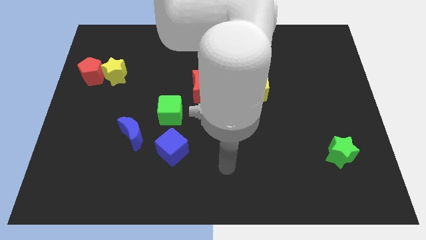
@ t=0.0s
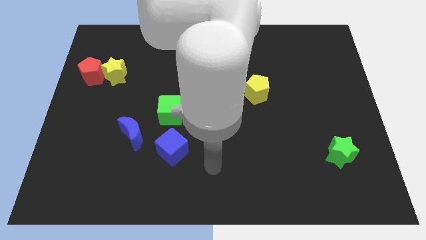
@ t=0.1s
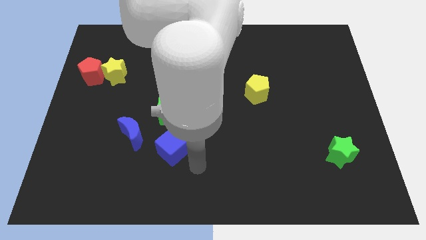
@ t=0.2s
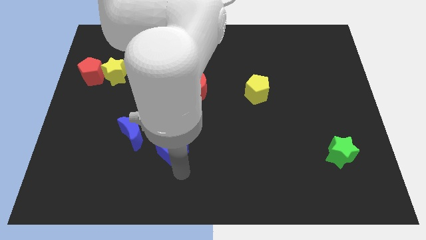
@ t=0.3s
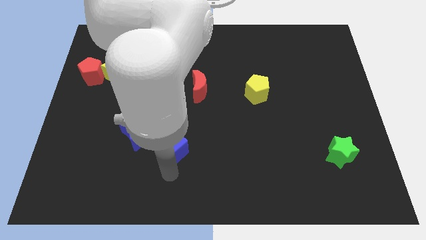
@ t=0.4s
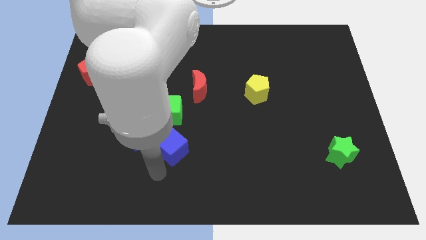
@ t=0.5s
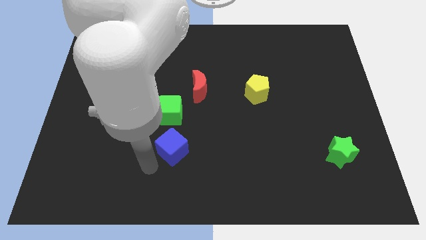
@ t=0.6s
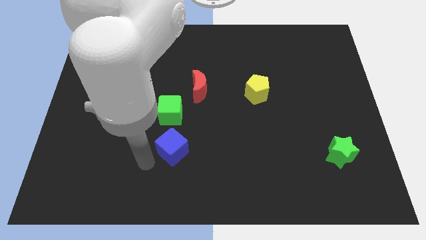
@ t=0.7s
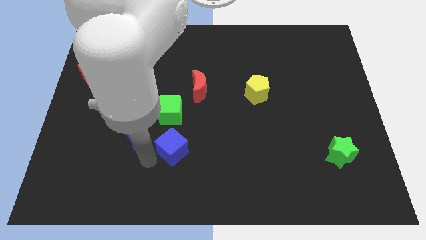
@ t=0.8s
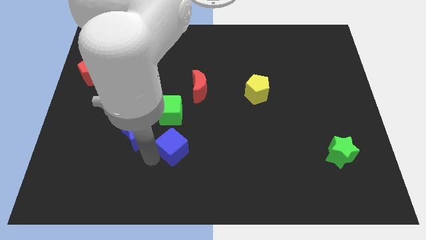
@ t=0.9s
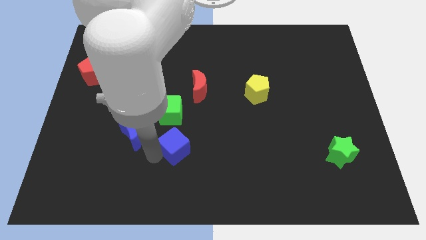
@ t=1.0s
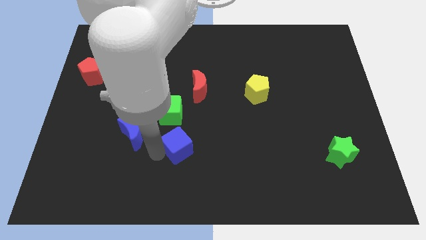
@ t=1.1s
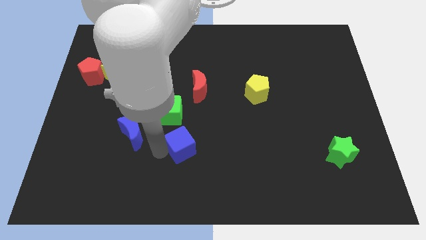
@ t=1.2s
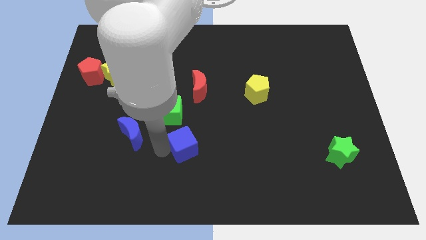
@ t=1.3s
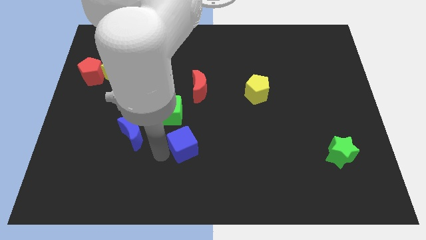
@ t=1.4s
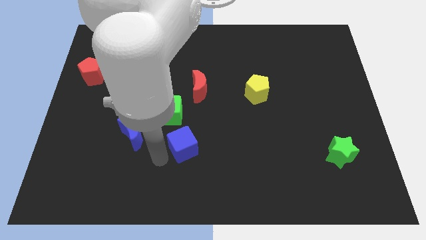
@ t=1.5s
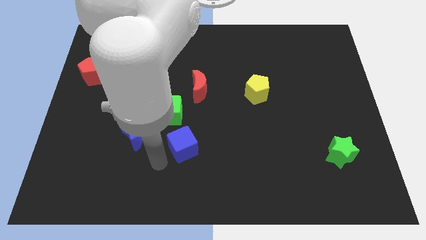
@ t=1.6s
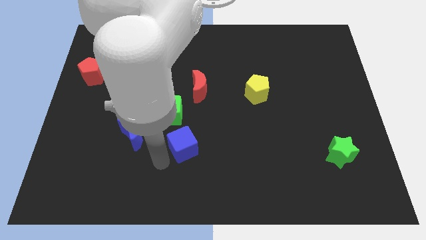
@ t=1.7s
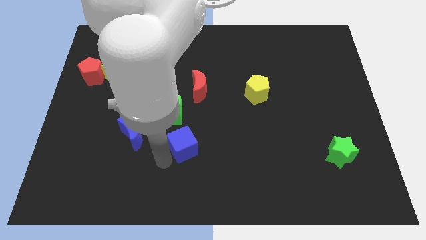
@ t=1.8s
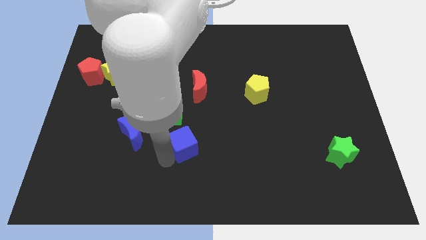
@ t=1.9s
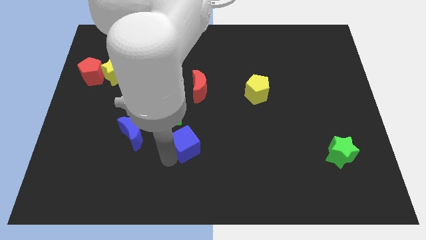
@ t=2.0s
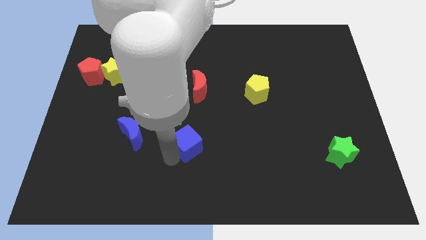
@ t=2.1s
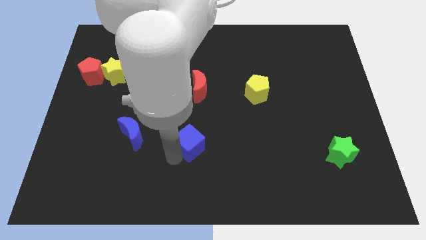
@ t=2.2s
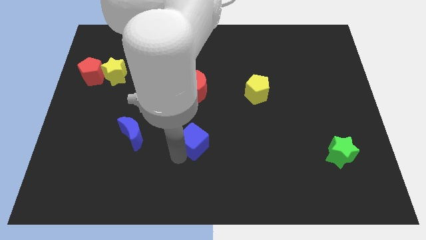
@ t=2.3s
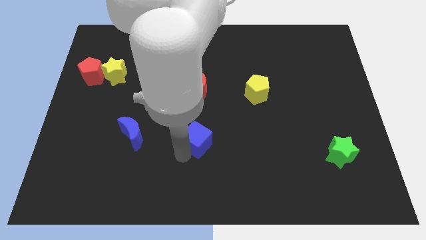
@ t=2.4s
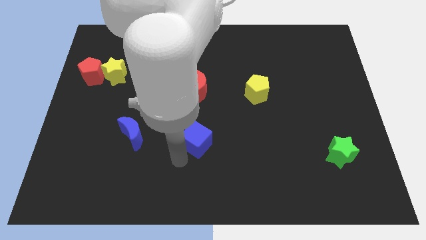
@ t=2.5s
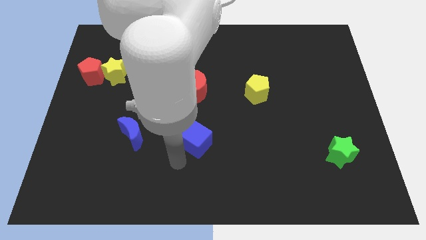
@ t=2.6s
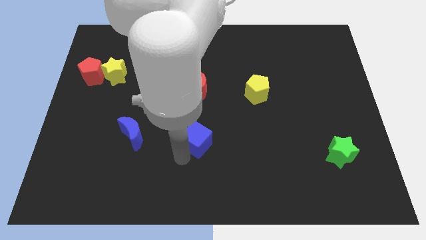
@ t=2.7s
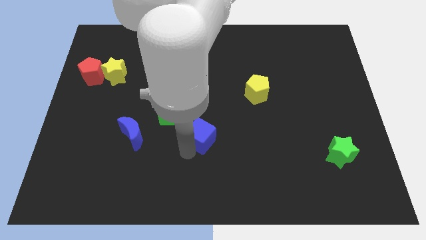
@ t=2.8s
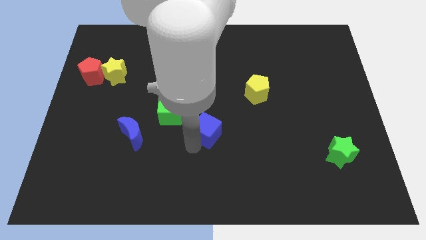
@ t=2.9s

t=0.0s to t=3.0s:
slide the blue cube up and then right somewhat

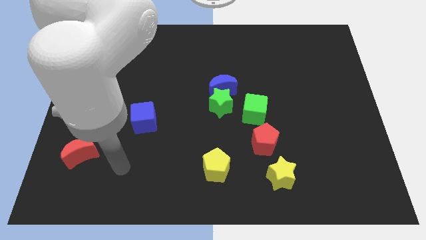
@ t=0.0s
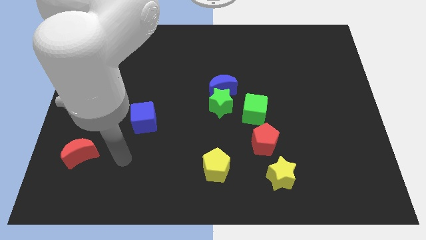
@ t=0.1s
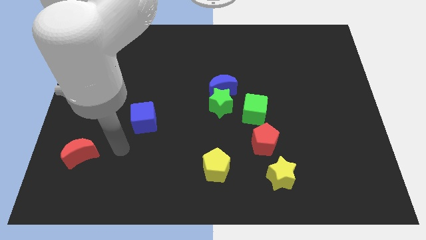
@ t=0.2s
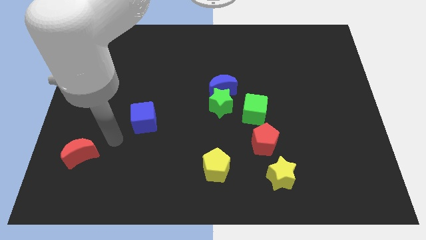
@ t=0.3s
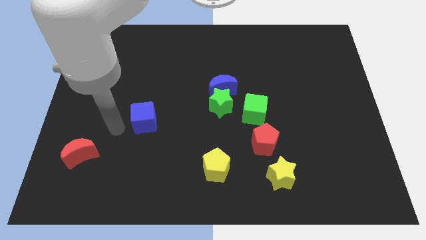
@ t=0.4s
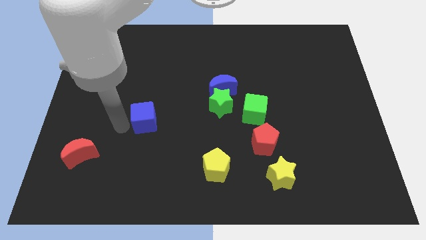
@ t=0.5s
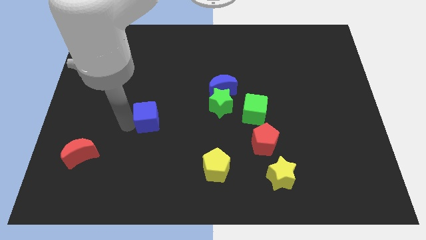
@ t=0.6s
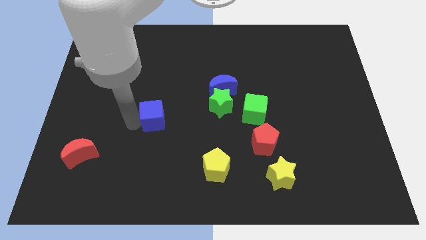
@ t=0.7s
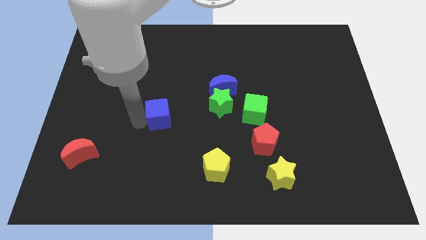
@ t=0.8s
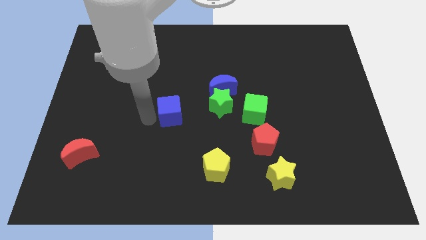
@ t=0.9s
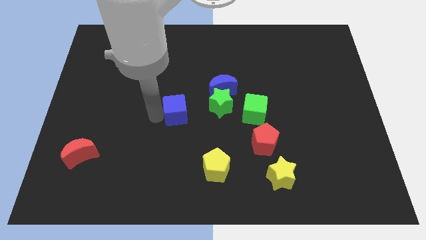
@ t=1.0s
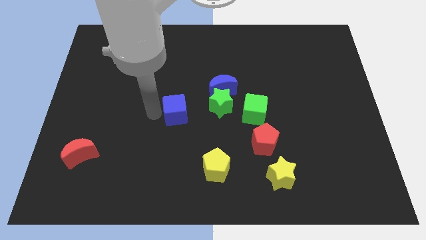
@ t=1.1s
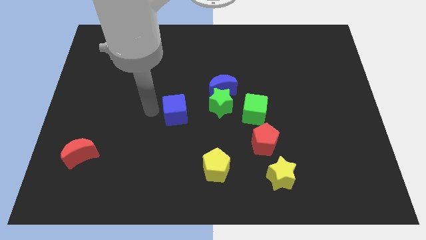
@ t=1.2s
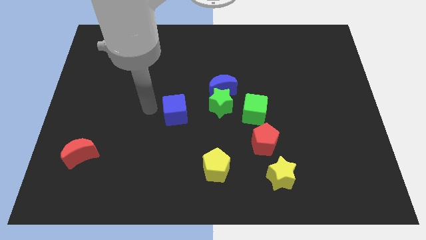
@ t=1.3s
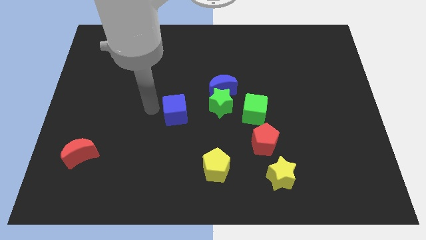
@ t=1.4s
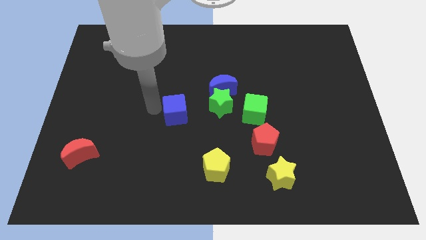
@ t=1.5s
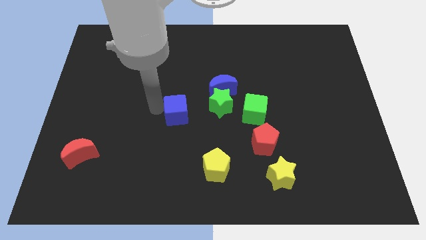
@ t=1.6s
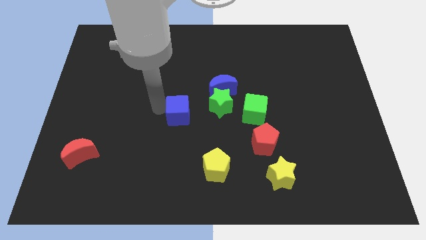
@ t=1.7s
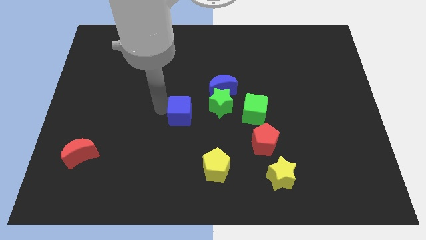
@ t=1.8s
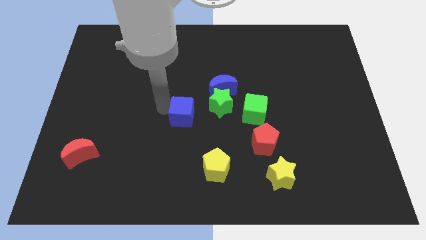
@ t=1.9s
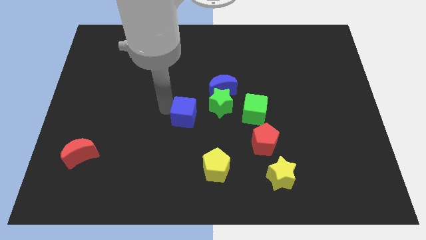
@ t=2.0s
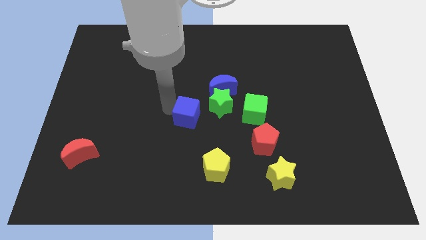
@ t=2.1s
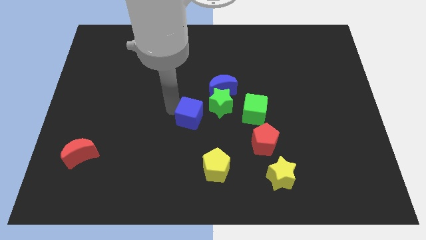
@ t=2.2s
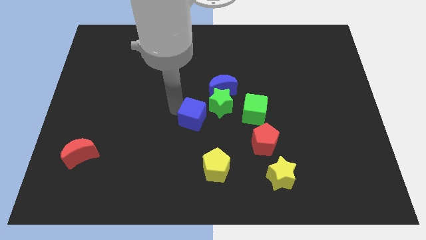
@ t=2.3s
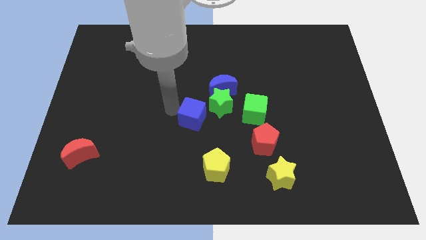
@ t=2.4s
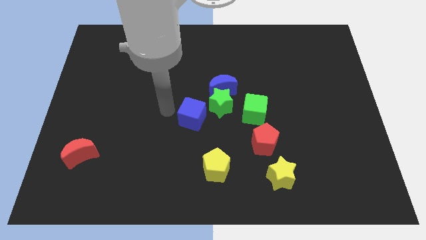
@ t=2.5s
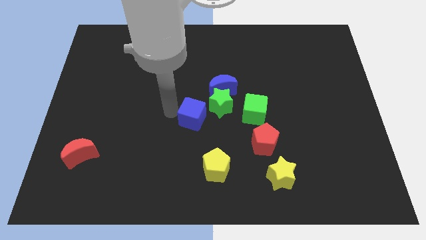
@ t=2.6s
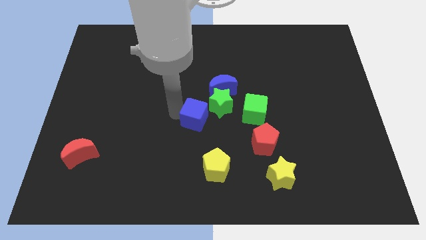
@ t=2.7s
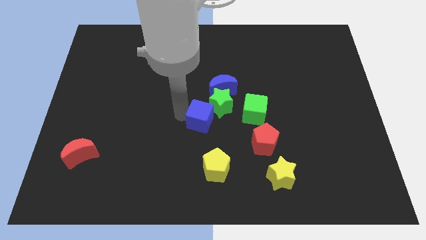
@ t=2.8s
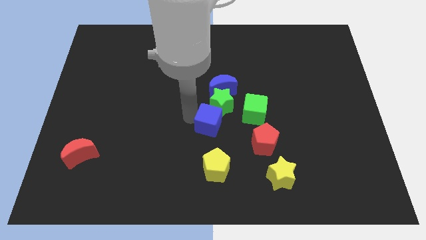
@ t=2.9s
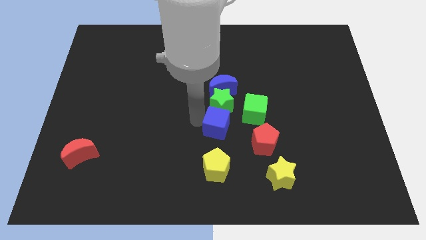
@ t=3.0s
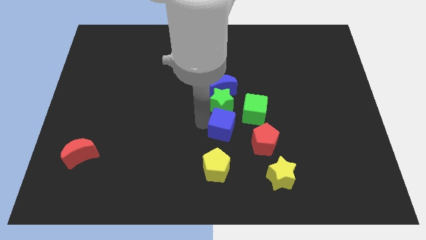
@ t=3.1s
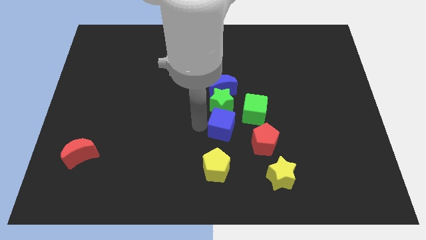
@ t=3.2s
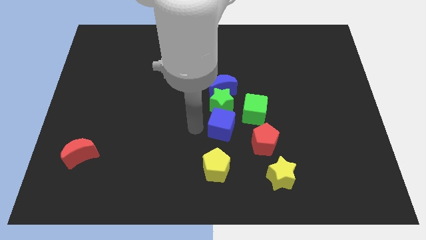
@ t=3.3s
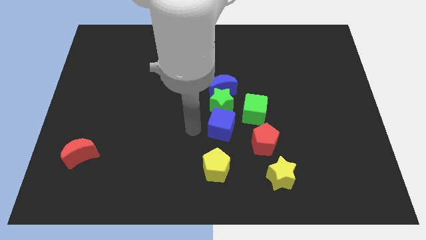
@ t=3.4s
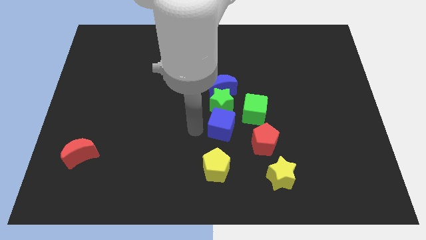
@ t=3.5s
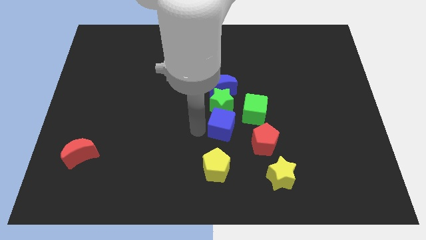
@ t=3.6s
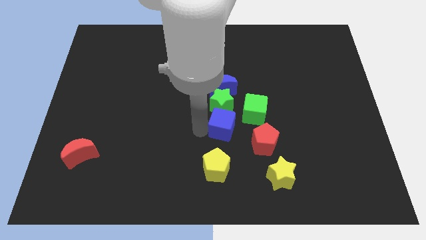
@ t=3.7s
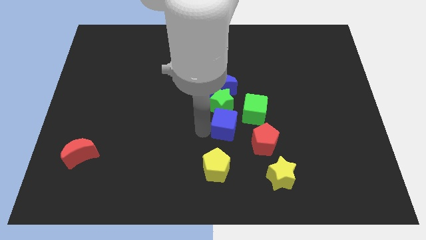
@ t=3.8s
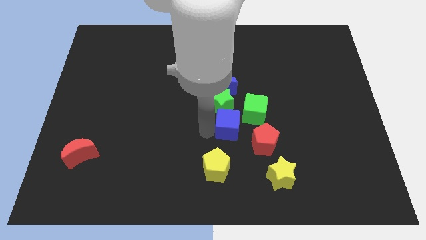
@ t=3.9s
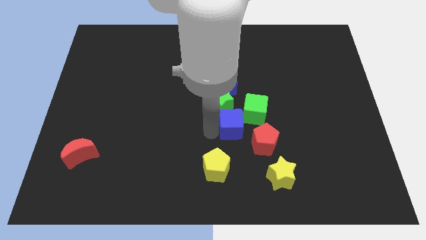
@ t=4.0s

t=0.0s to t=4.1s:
push the blue cube to the right

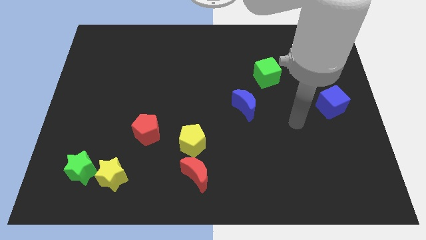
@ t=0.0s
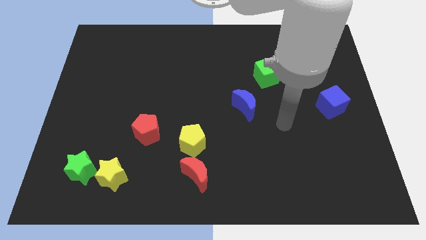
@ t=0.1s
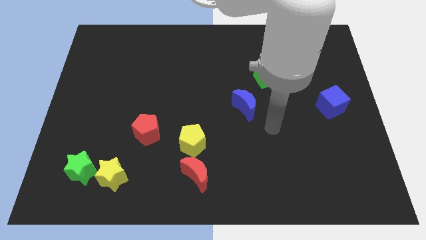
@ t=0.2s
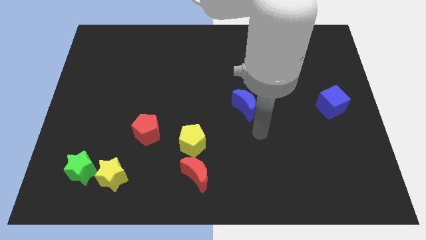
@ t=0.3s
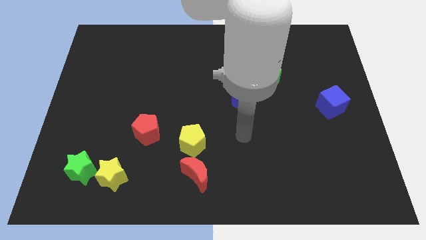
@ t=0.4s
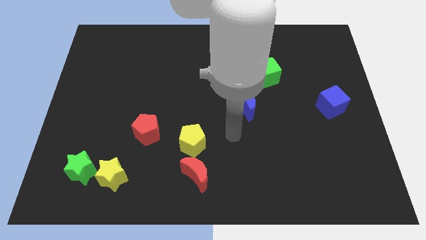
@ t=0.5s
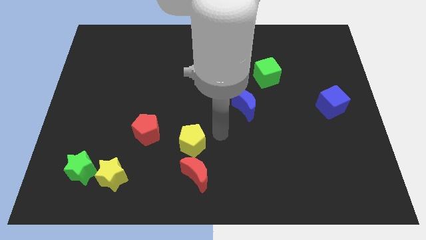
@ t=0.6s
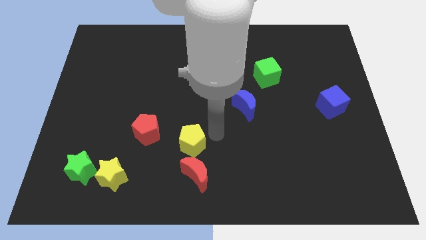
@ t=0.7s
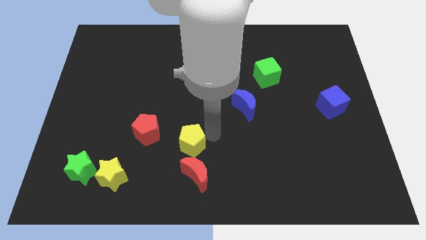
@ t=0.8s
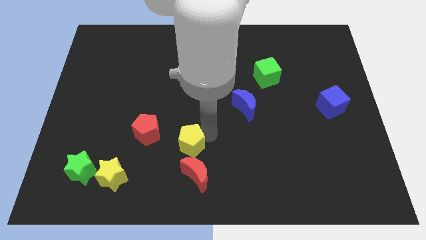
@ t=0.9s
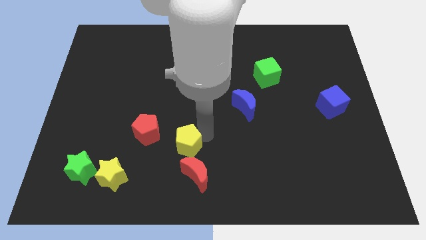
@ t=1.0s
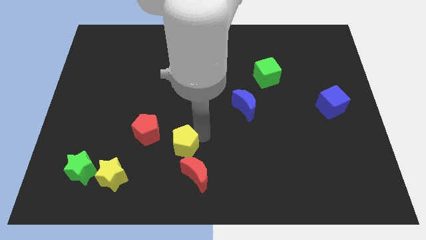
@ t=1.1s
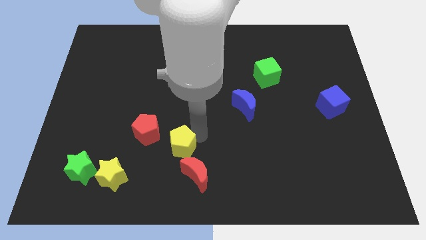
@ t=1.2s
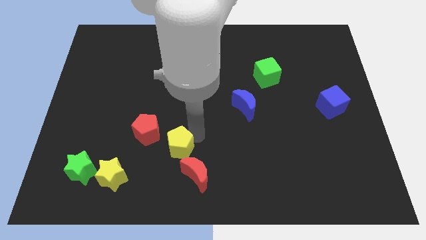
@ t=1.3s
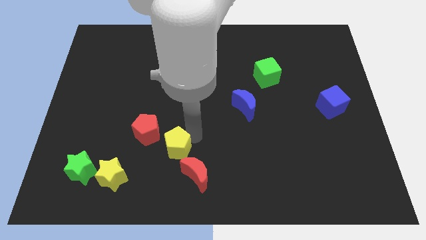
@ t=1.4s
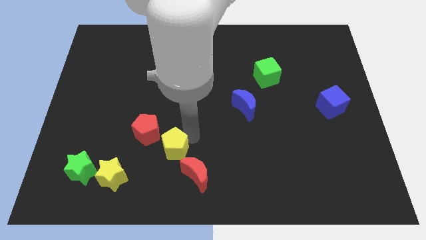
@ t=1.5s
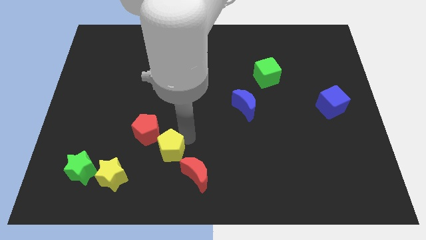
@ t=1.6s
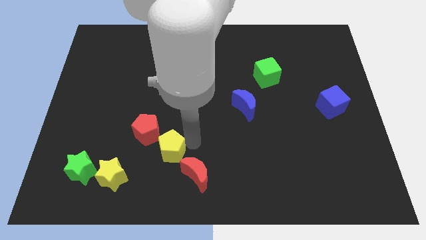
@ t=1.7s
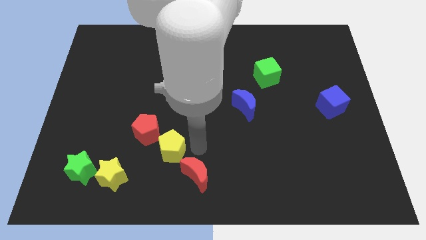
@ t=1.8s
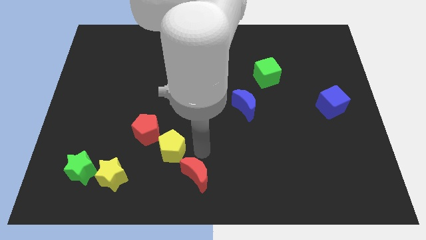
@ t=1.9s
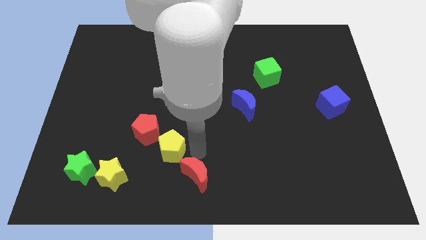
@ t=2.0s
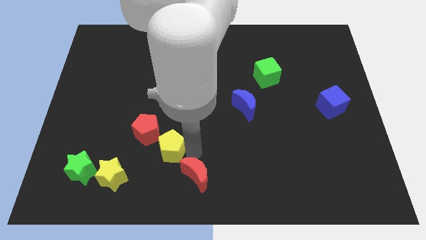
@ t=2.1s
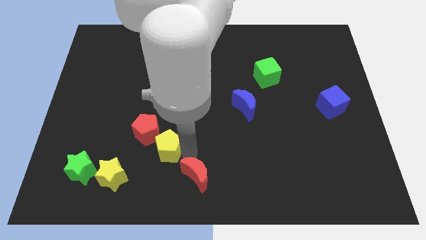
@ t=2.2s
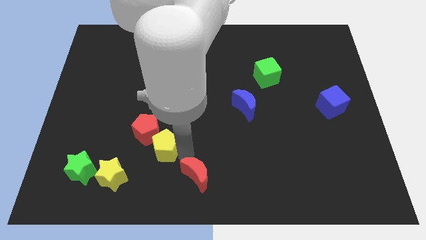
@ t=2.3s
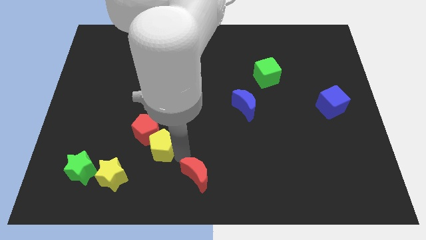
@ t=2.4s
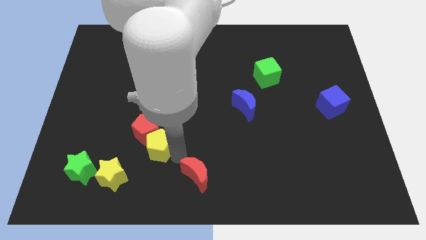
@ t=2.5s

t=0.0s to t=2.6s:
push the yellow pentagon left slightly
